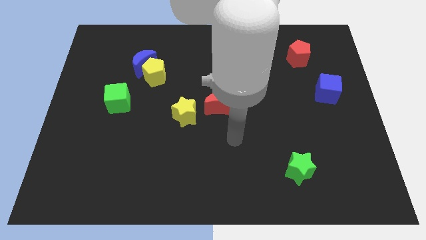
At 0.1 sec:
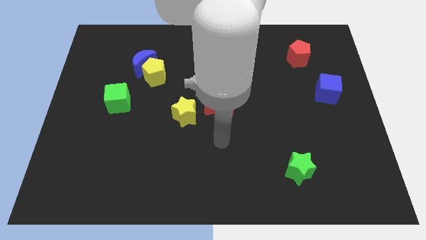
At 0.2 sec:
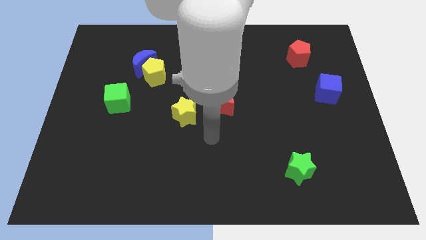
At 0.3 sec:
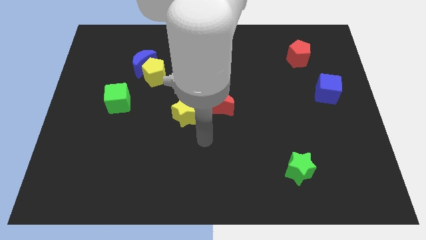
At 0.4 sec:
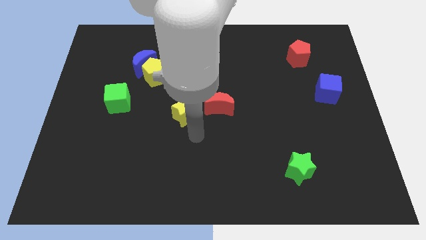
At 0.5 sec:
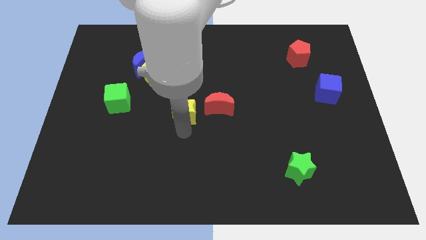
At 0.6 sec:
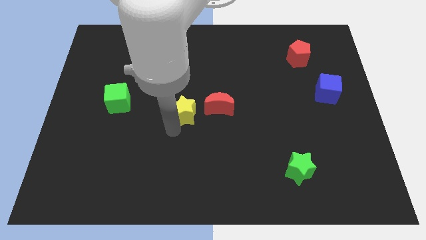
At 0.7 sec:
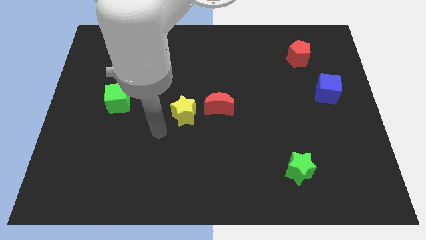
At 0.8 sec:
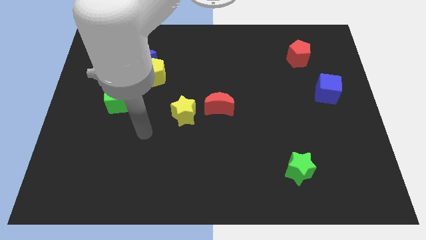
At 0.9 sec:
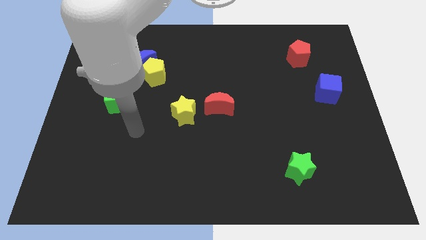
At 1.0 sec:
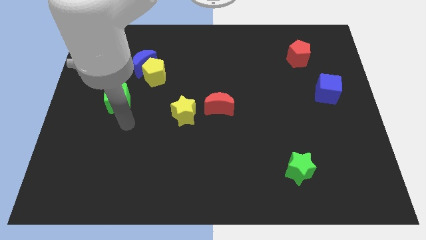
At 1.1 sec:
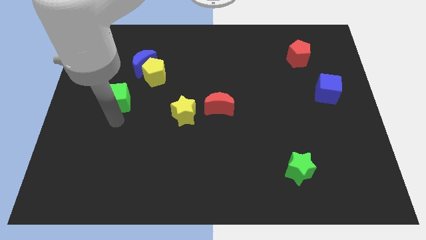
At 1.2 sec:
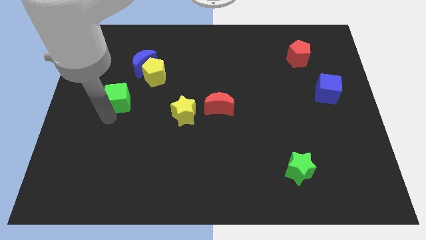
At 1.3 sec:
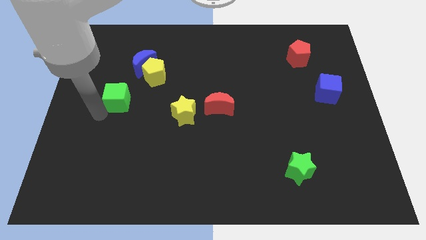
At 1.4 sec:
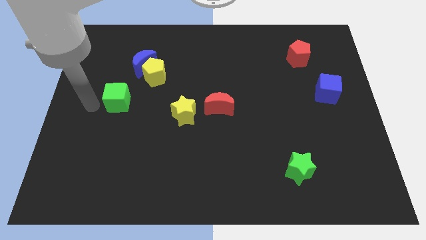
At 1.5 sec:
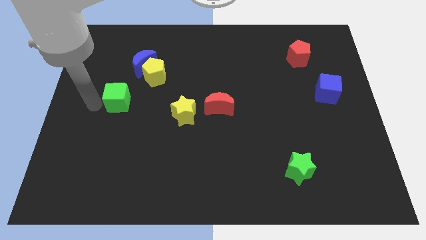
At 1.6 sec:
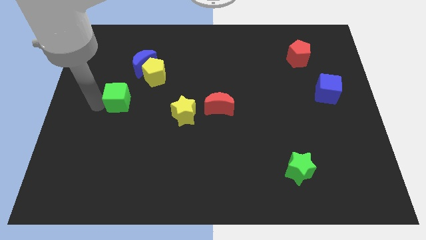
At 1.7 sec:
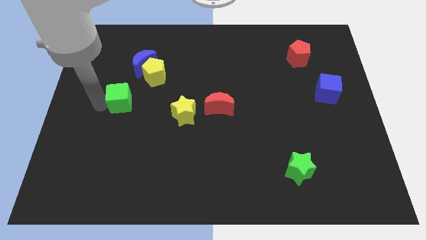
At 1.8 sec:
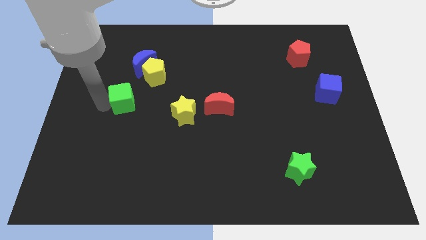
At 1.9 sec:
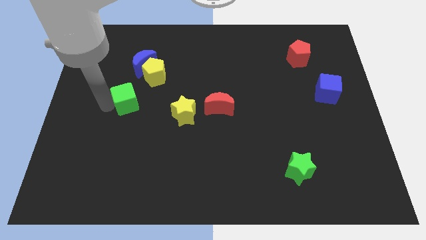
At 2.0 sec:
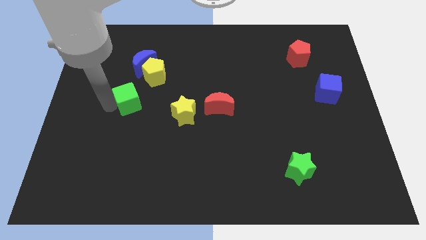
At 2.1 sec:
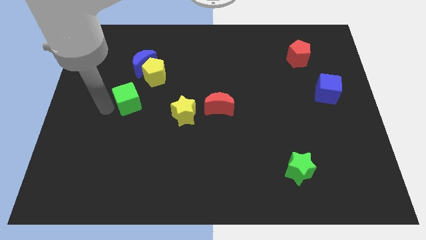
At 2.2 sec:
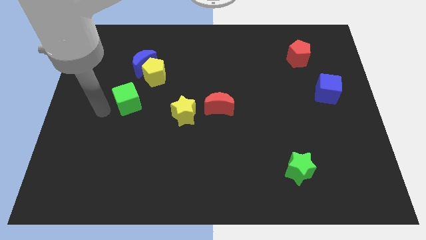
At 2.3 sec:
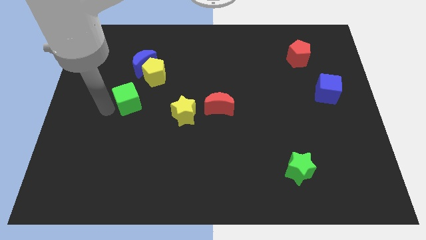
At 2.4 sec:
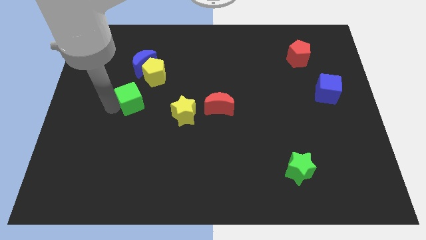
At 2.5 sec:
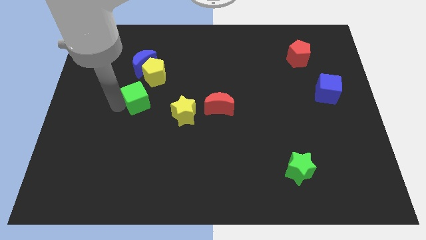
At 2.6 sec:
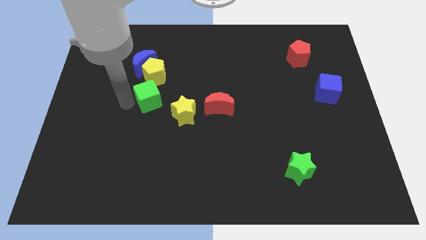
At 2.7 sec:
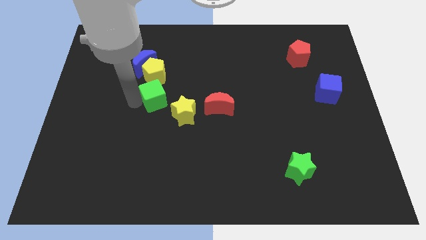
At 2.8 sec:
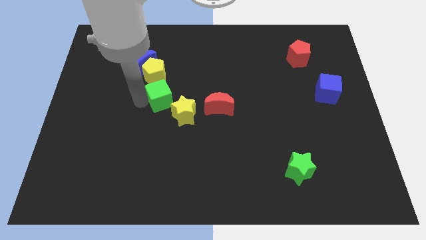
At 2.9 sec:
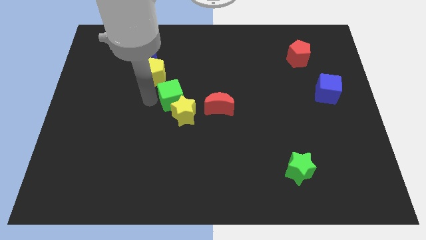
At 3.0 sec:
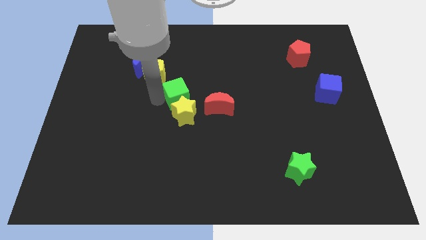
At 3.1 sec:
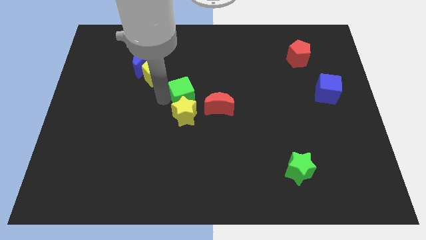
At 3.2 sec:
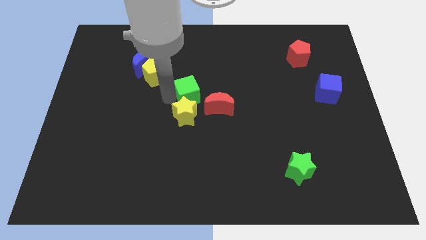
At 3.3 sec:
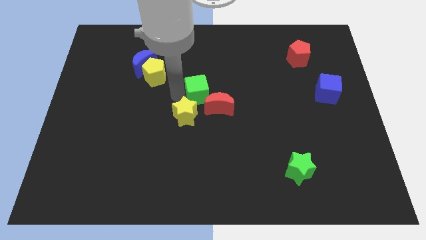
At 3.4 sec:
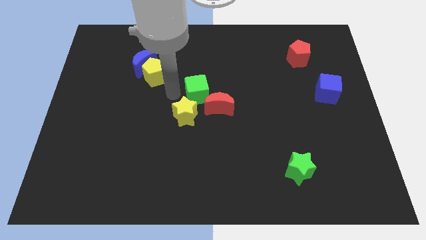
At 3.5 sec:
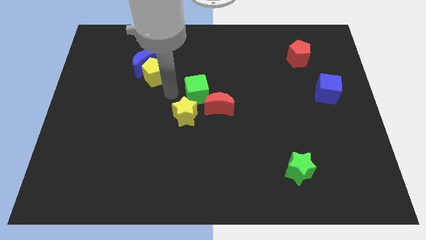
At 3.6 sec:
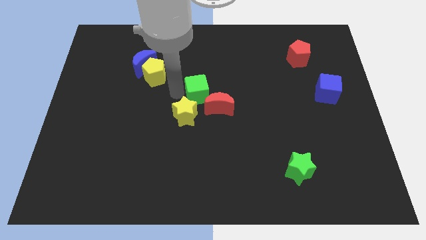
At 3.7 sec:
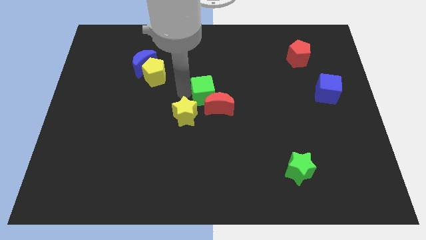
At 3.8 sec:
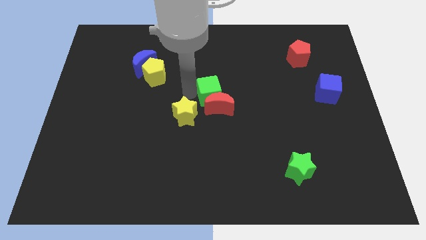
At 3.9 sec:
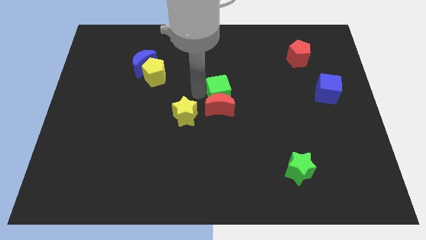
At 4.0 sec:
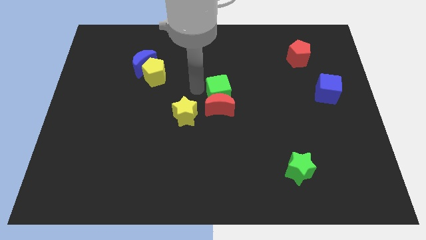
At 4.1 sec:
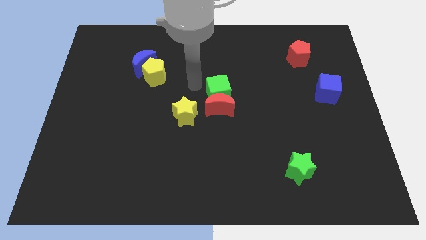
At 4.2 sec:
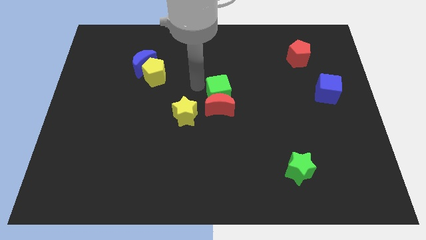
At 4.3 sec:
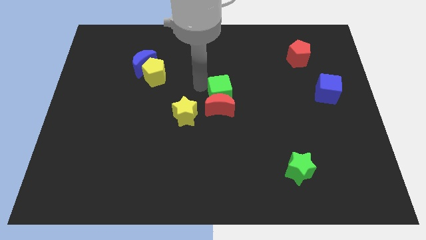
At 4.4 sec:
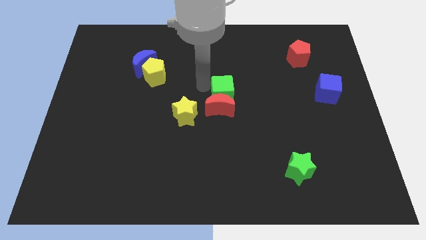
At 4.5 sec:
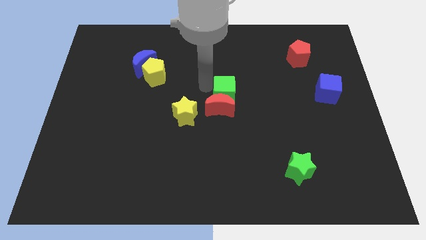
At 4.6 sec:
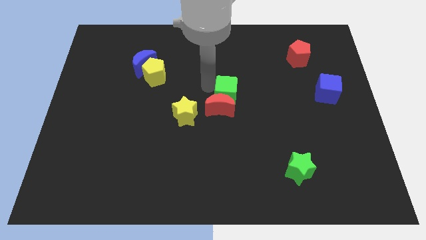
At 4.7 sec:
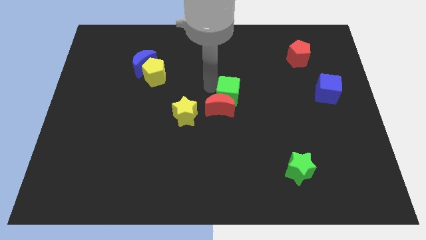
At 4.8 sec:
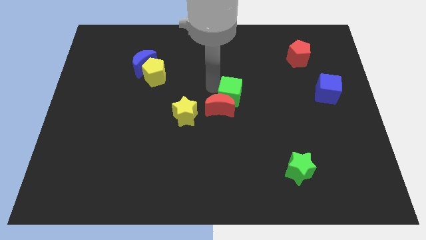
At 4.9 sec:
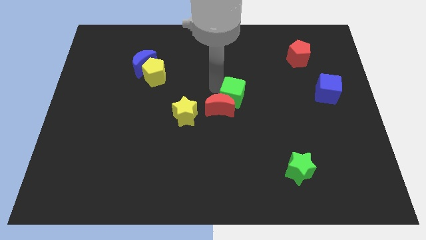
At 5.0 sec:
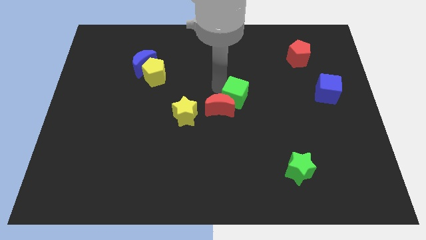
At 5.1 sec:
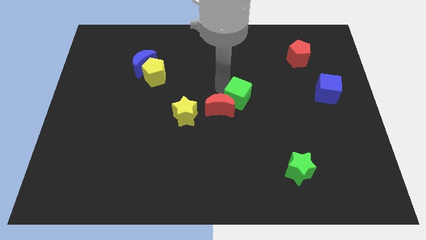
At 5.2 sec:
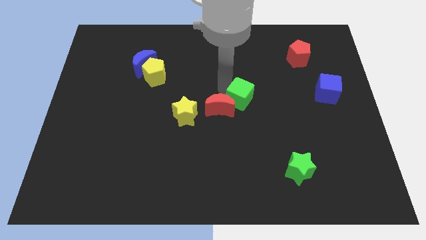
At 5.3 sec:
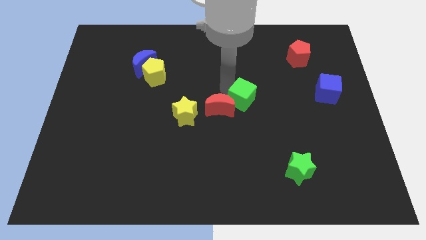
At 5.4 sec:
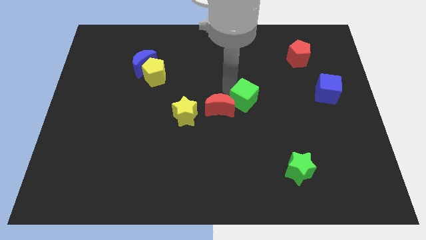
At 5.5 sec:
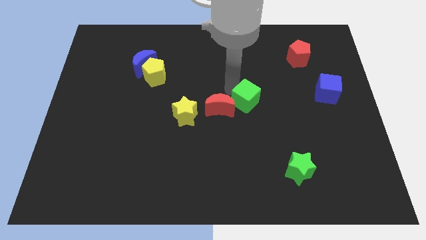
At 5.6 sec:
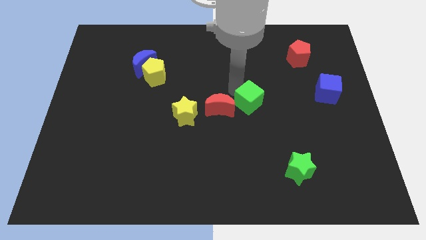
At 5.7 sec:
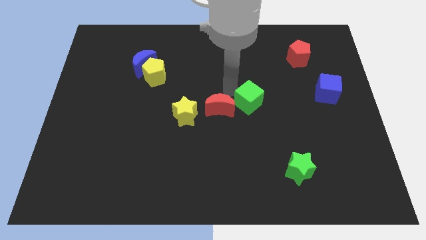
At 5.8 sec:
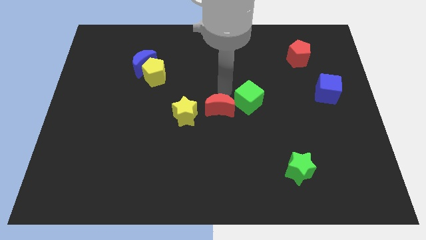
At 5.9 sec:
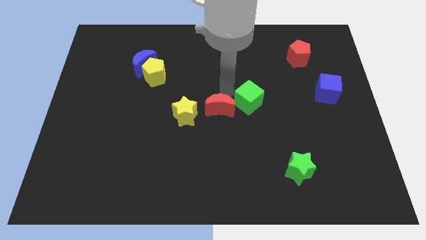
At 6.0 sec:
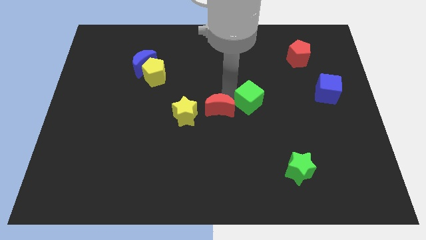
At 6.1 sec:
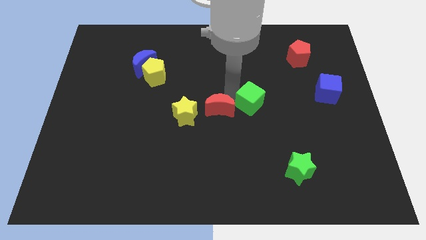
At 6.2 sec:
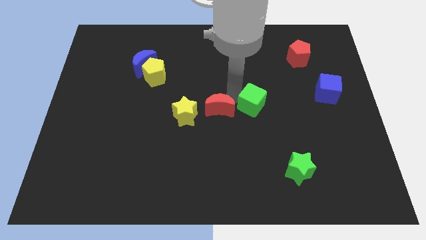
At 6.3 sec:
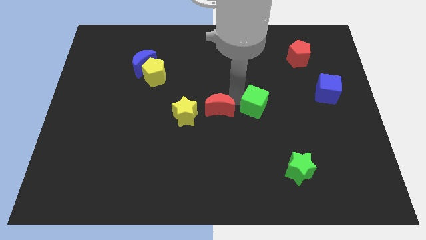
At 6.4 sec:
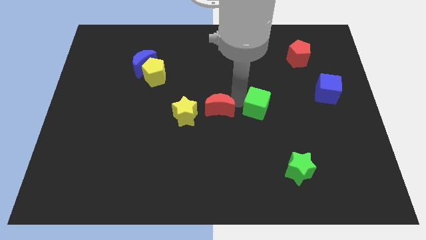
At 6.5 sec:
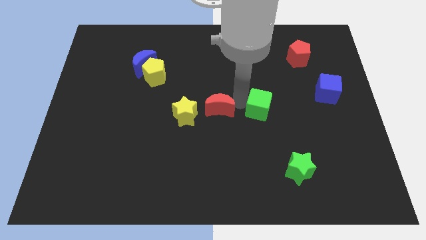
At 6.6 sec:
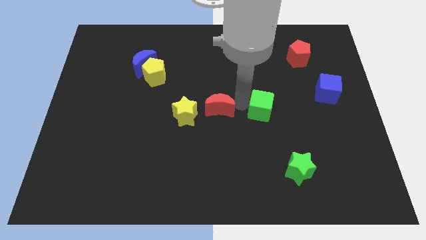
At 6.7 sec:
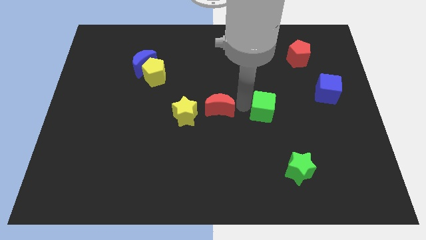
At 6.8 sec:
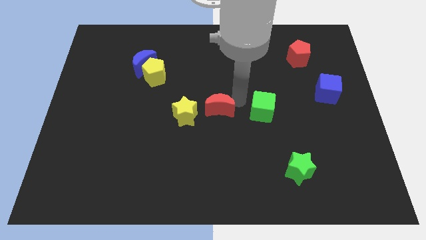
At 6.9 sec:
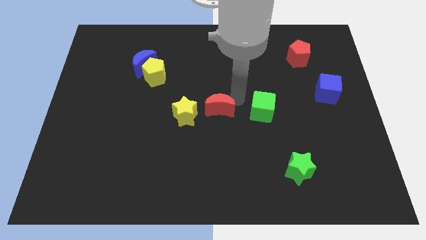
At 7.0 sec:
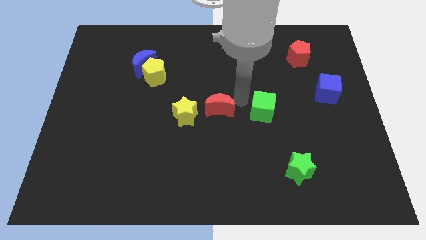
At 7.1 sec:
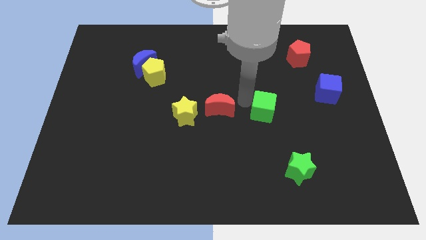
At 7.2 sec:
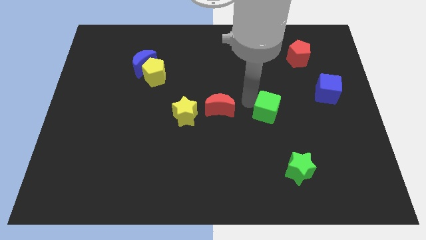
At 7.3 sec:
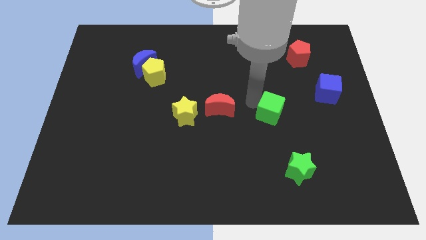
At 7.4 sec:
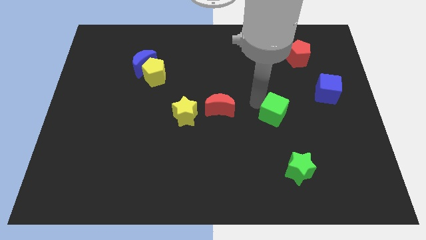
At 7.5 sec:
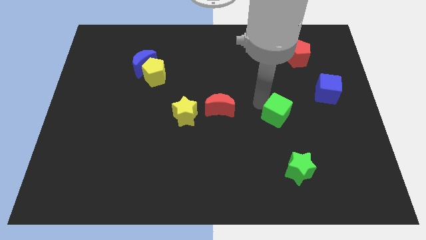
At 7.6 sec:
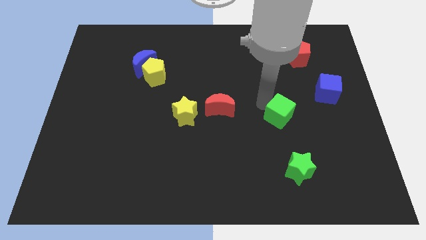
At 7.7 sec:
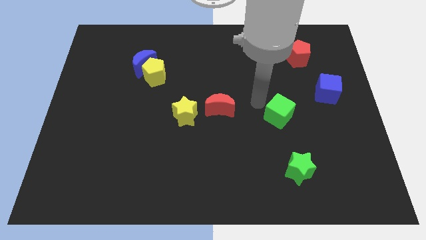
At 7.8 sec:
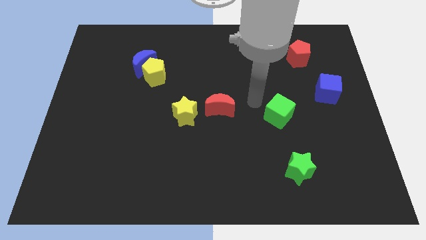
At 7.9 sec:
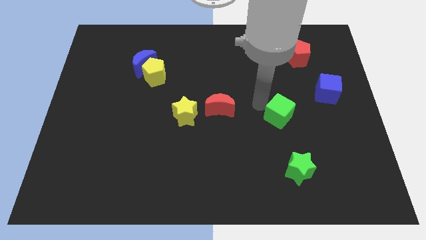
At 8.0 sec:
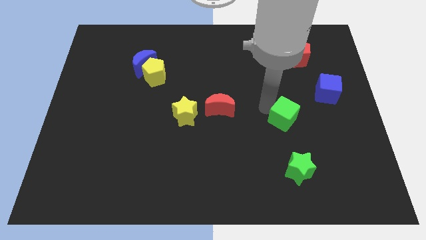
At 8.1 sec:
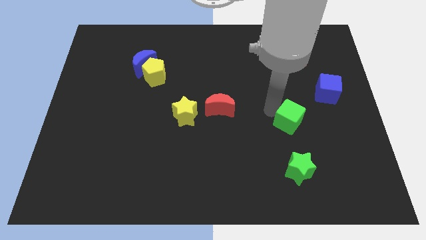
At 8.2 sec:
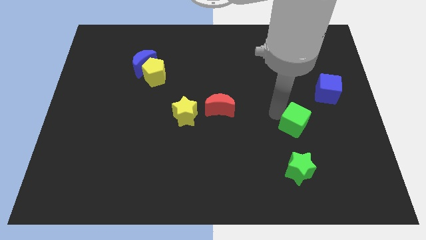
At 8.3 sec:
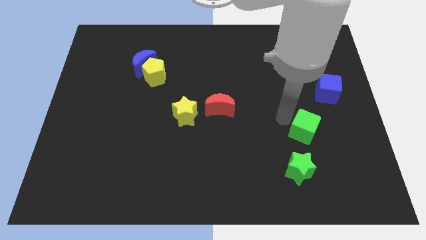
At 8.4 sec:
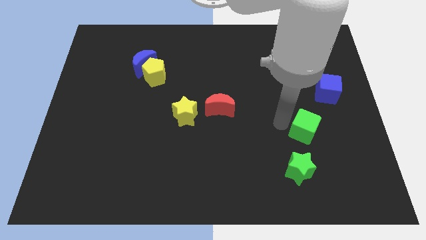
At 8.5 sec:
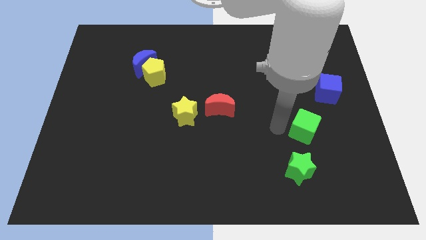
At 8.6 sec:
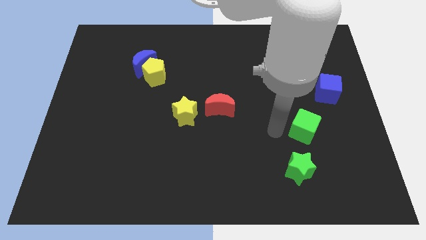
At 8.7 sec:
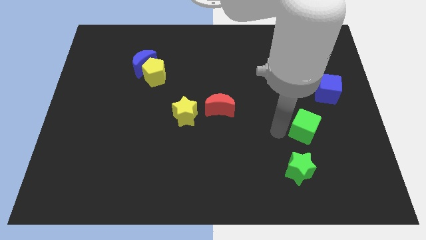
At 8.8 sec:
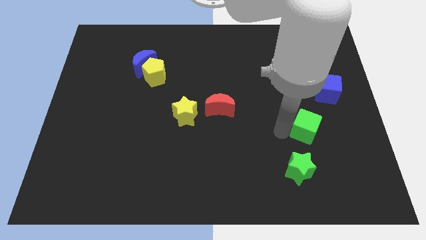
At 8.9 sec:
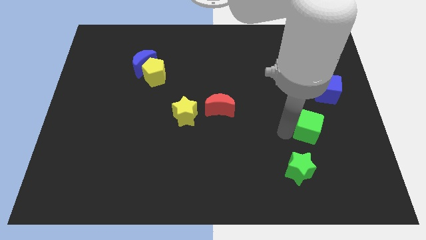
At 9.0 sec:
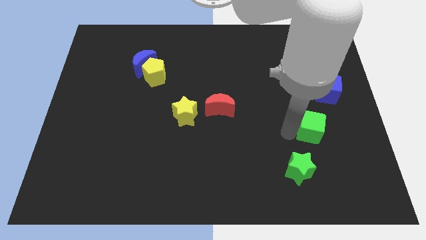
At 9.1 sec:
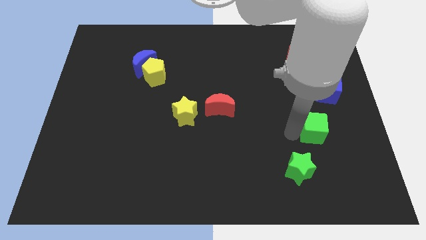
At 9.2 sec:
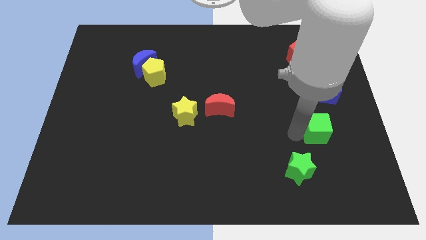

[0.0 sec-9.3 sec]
put the green cube below the blue cube
